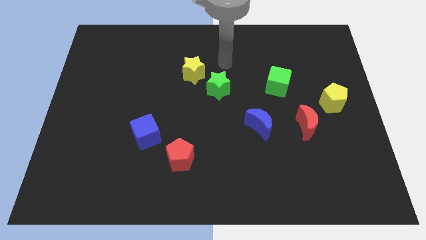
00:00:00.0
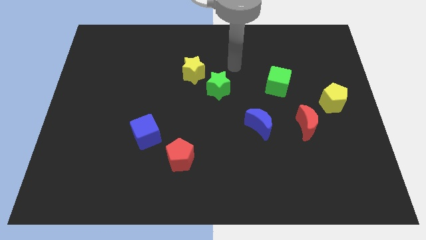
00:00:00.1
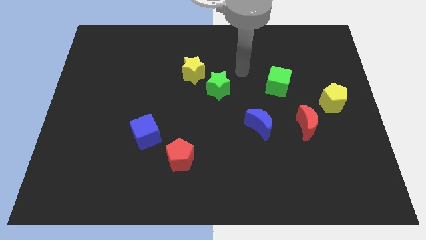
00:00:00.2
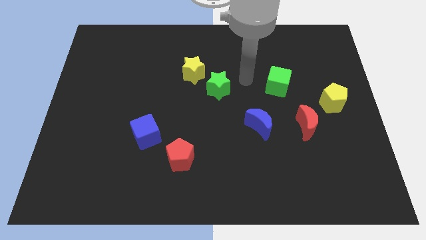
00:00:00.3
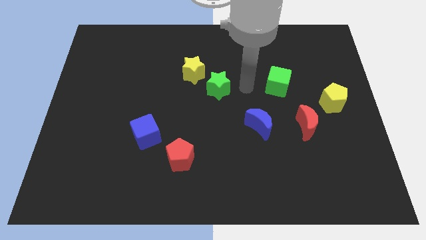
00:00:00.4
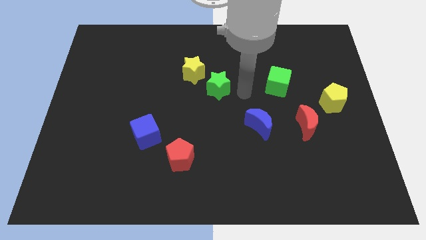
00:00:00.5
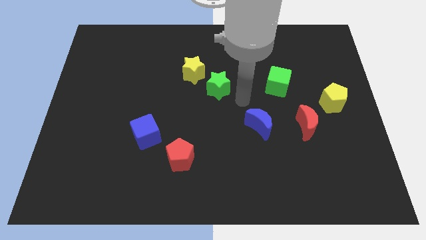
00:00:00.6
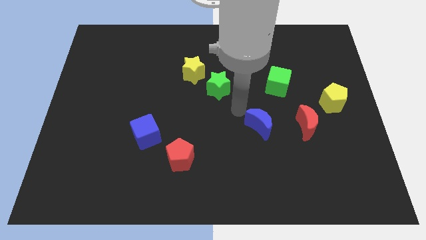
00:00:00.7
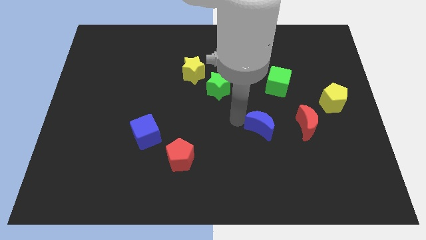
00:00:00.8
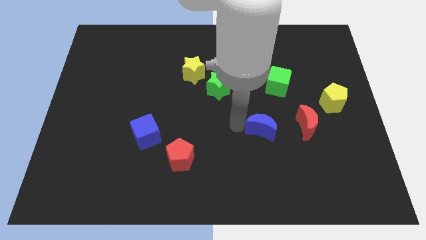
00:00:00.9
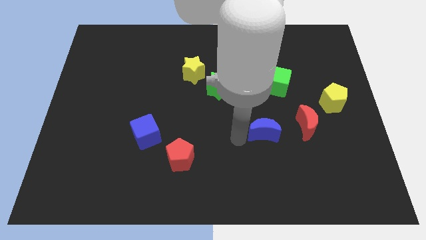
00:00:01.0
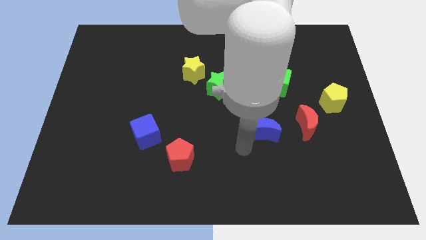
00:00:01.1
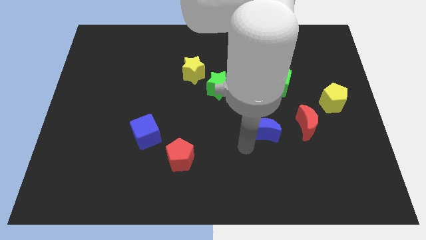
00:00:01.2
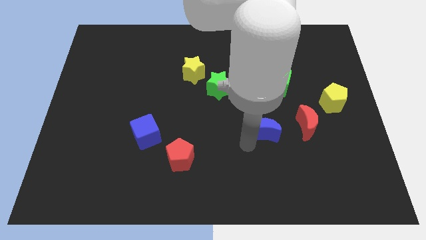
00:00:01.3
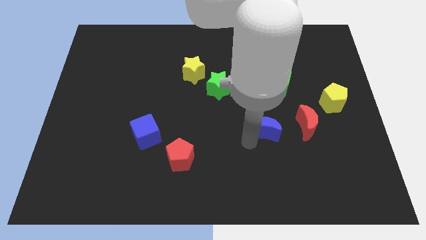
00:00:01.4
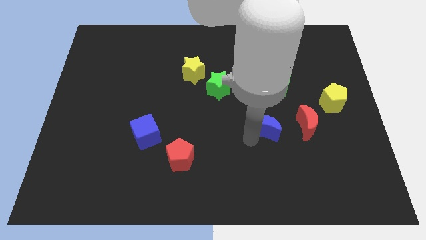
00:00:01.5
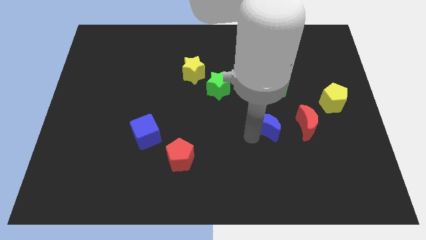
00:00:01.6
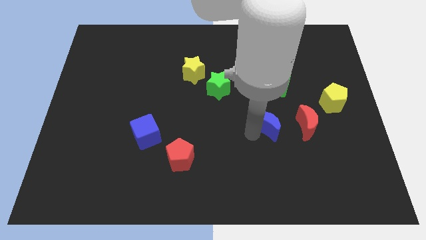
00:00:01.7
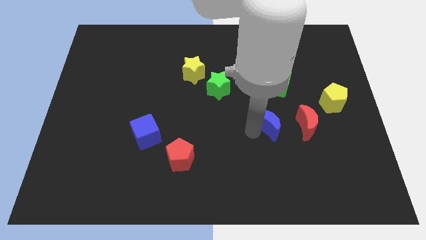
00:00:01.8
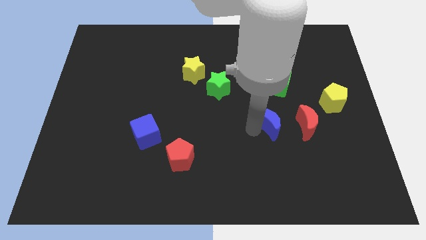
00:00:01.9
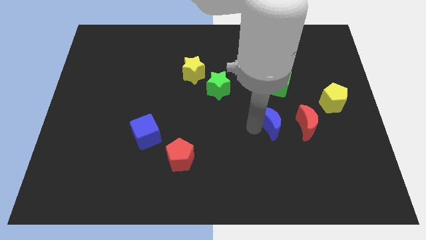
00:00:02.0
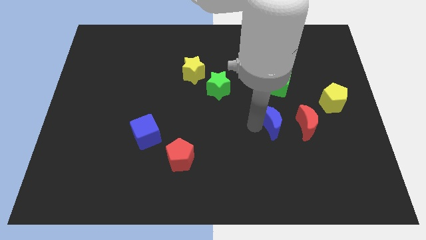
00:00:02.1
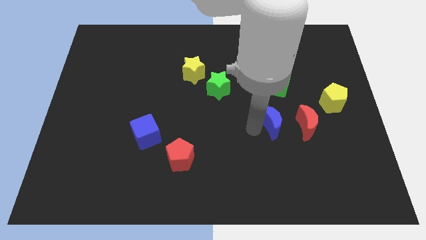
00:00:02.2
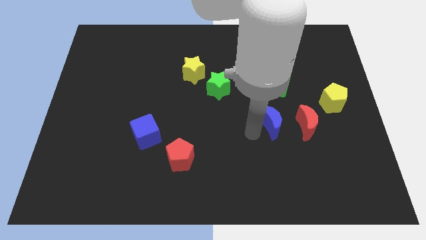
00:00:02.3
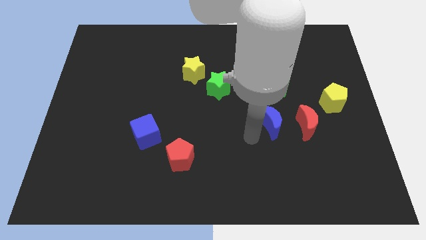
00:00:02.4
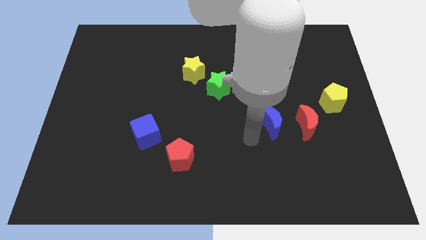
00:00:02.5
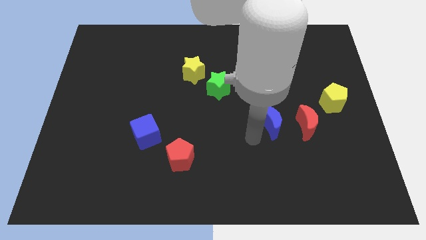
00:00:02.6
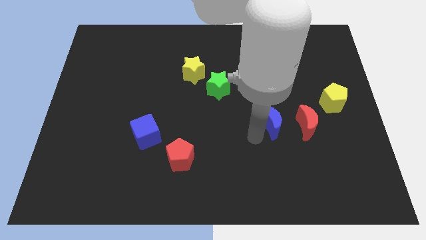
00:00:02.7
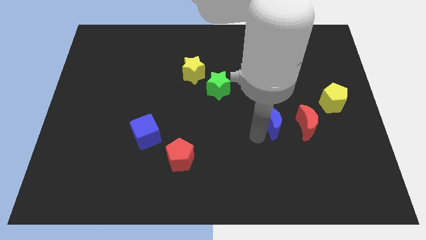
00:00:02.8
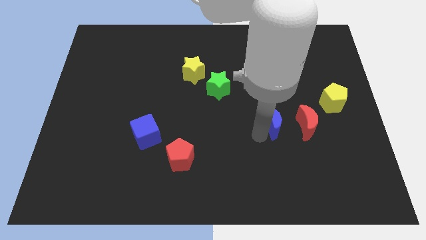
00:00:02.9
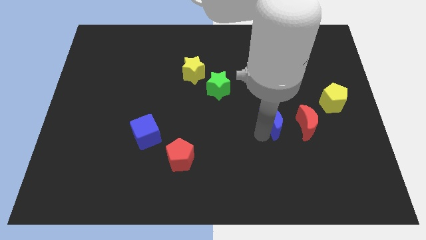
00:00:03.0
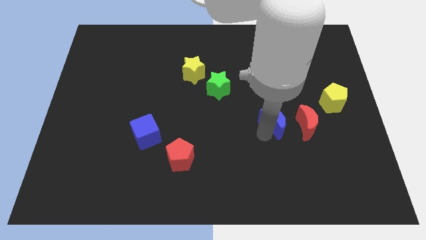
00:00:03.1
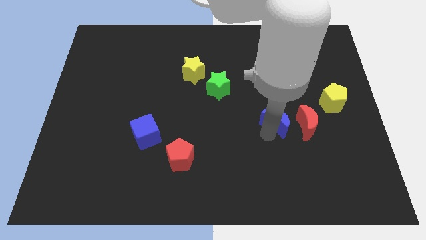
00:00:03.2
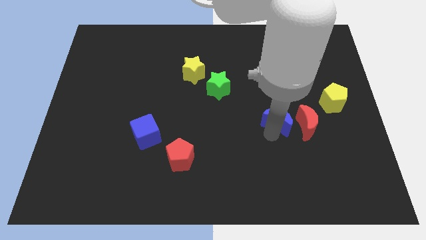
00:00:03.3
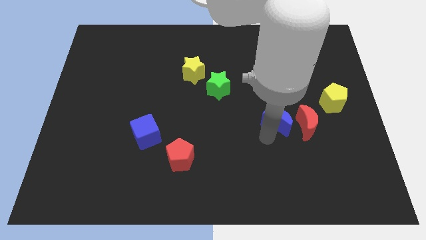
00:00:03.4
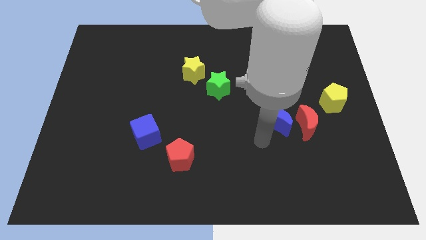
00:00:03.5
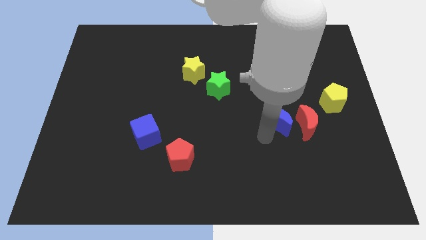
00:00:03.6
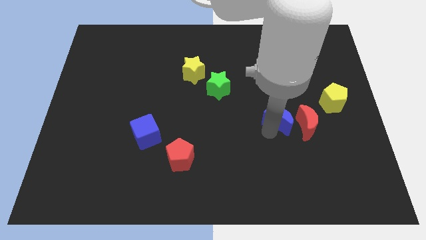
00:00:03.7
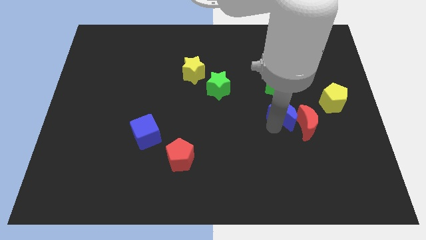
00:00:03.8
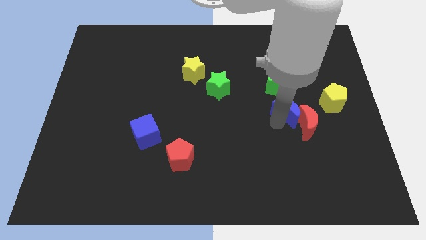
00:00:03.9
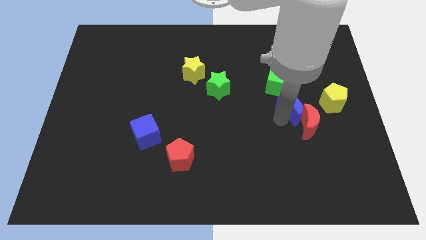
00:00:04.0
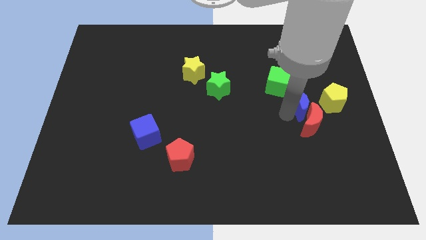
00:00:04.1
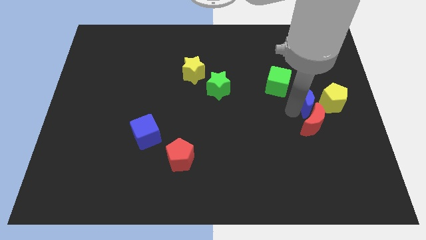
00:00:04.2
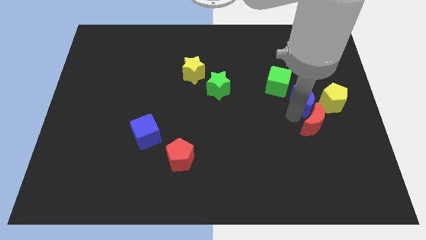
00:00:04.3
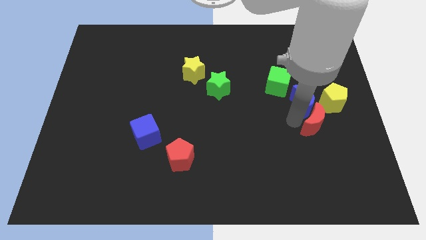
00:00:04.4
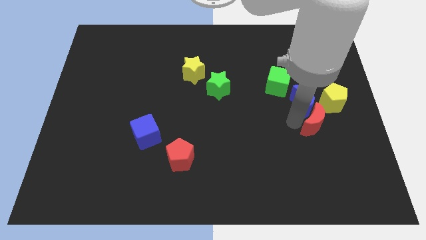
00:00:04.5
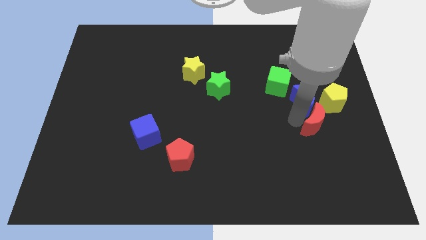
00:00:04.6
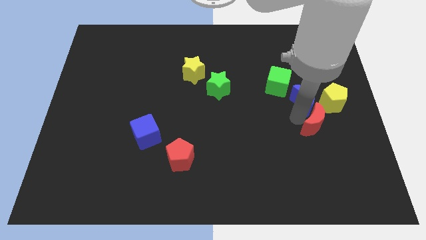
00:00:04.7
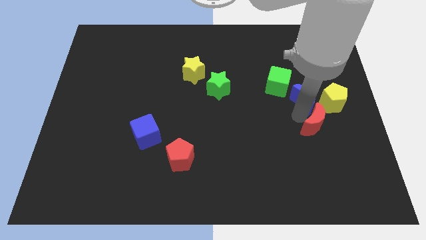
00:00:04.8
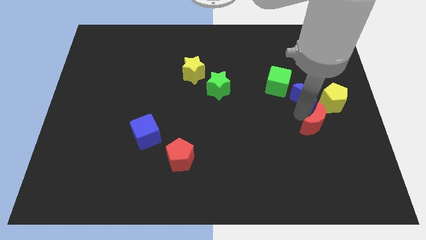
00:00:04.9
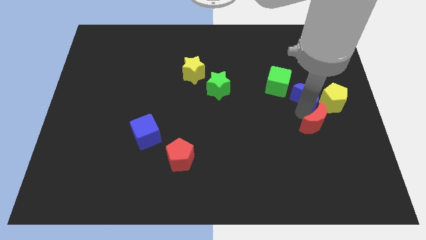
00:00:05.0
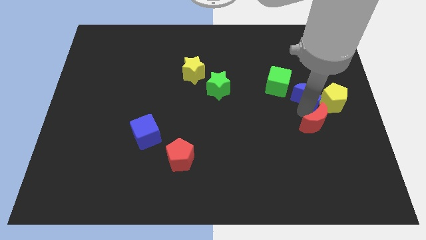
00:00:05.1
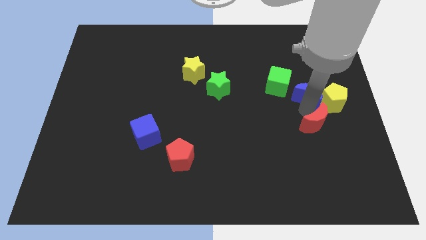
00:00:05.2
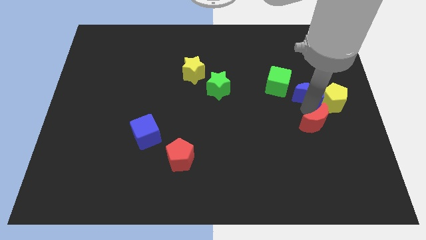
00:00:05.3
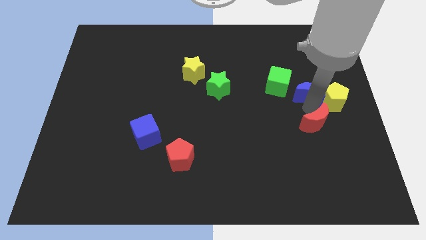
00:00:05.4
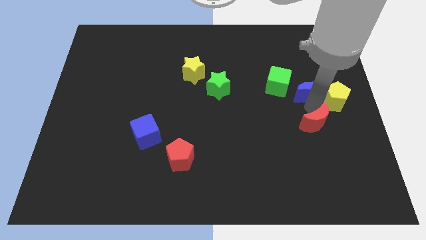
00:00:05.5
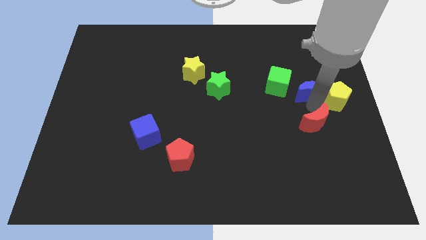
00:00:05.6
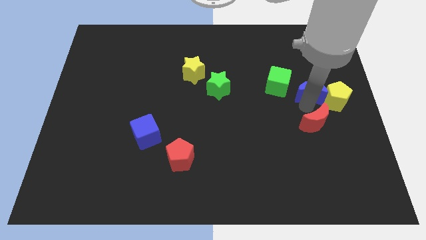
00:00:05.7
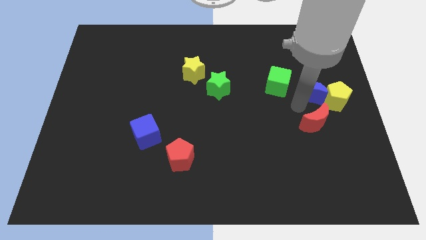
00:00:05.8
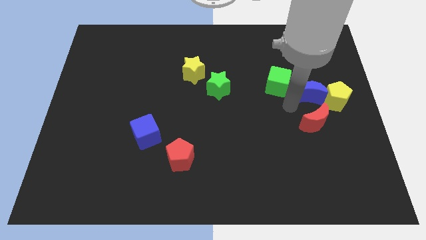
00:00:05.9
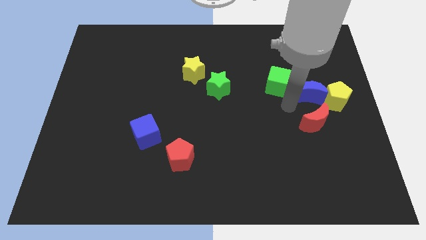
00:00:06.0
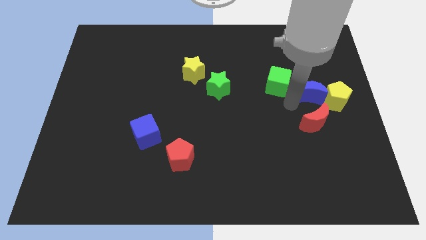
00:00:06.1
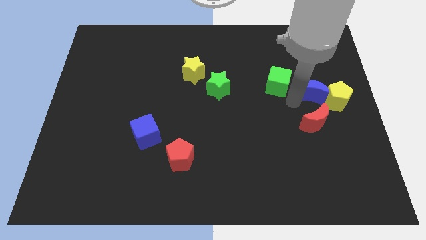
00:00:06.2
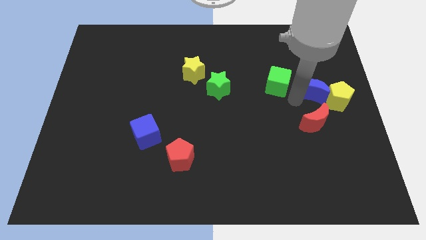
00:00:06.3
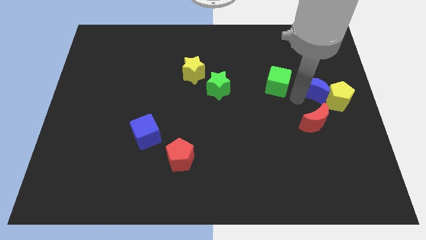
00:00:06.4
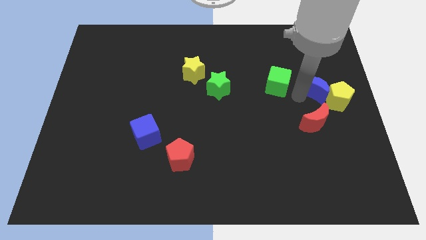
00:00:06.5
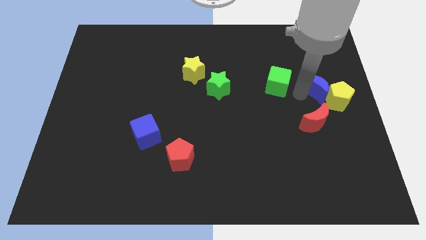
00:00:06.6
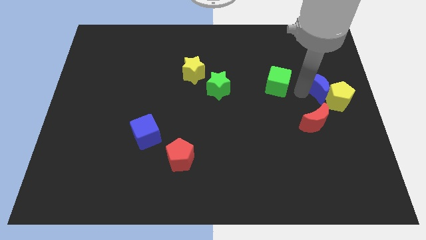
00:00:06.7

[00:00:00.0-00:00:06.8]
move the blue moon to the top side of the yellow pentagon
